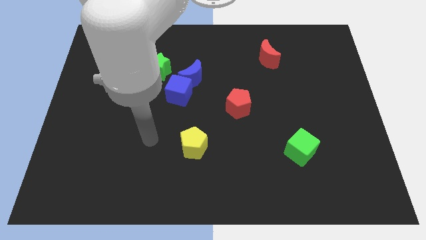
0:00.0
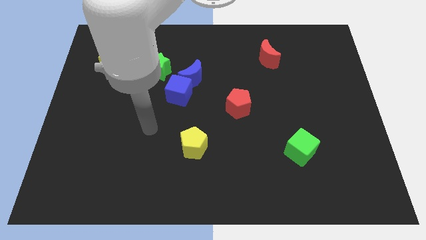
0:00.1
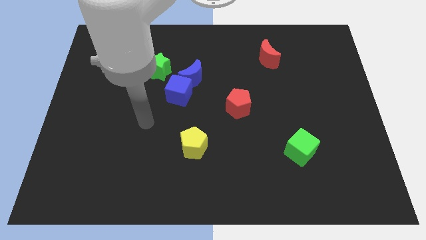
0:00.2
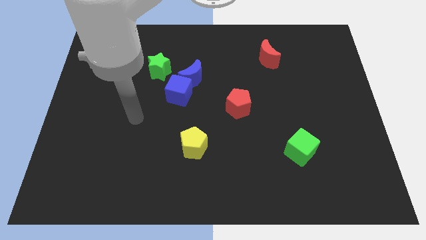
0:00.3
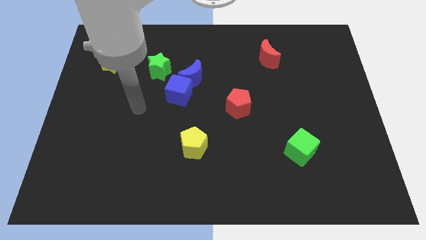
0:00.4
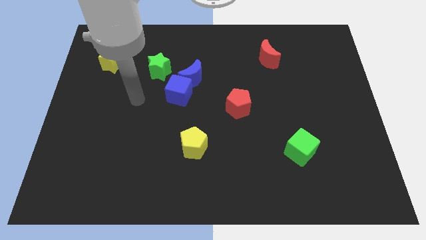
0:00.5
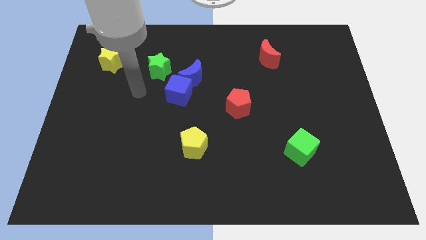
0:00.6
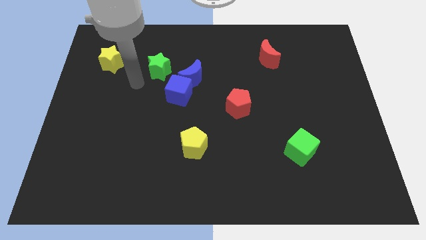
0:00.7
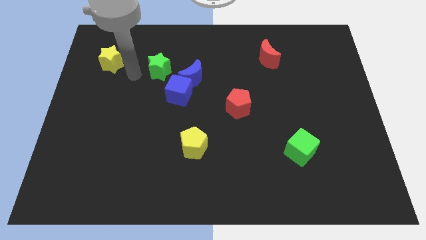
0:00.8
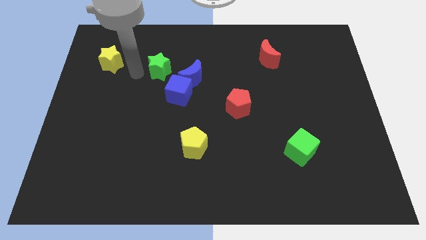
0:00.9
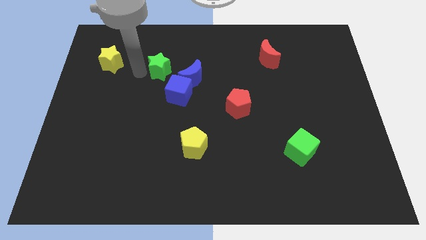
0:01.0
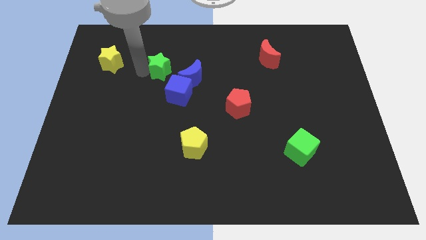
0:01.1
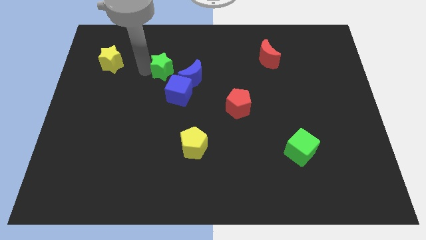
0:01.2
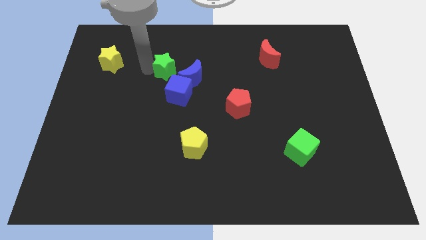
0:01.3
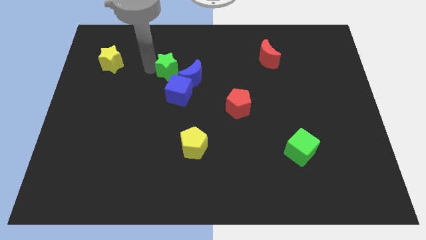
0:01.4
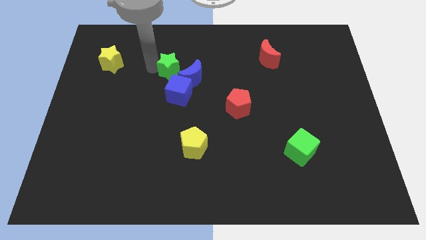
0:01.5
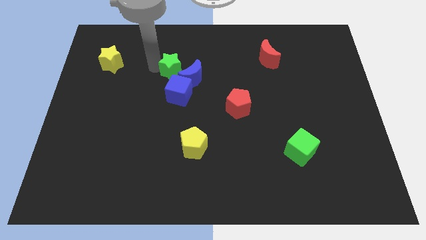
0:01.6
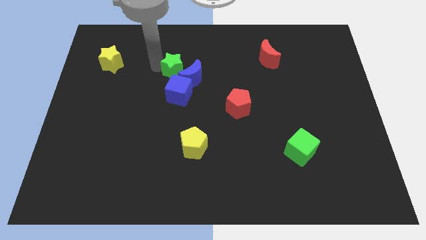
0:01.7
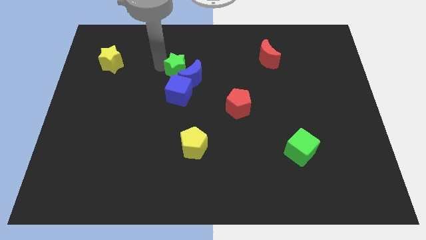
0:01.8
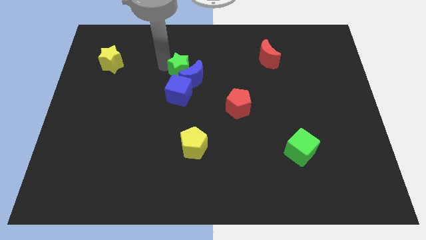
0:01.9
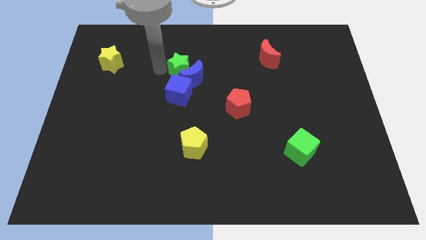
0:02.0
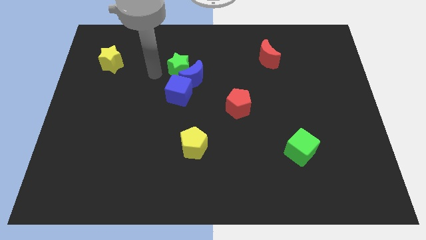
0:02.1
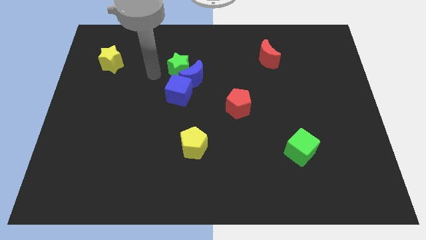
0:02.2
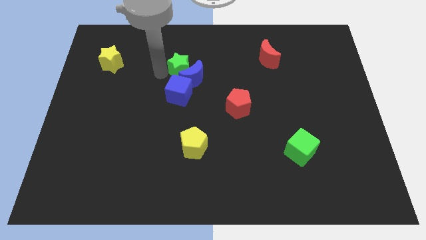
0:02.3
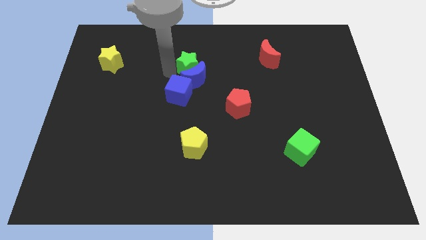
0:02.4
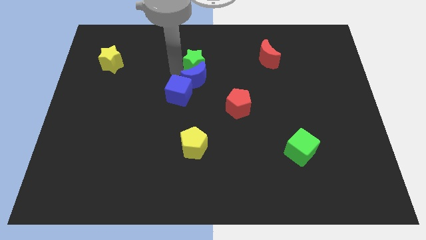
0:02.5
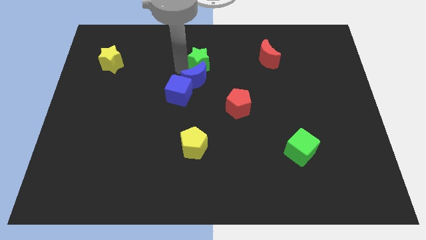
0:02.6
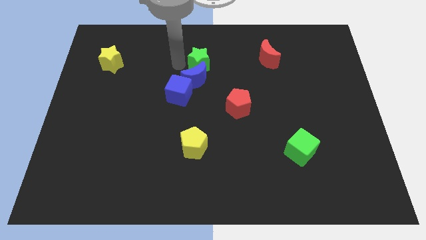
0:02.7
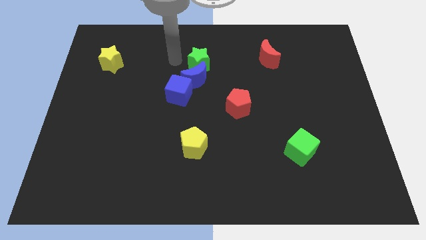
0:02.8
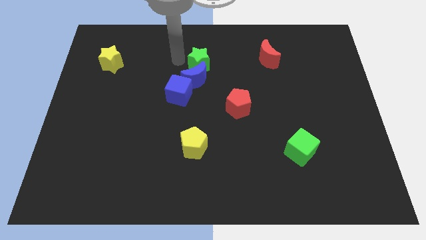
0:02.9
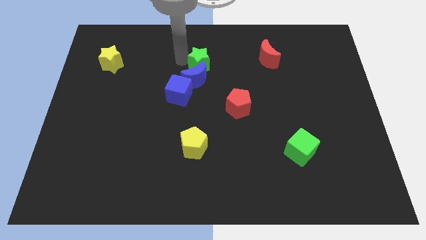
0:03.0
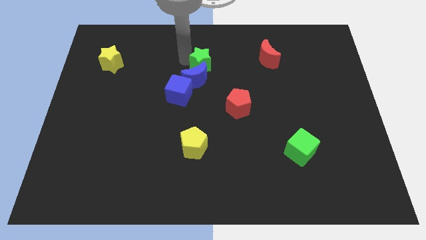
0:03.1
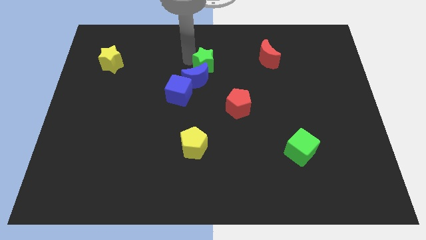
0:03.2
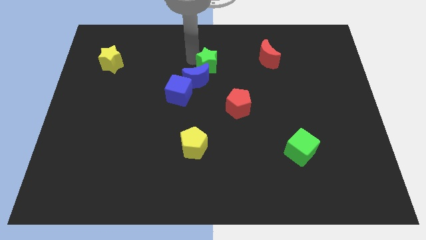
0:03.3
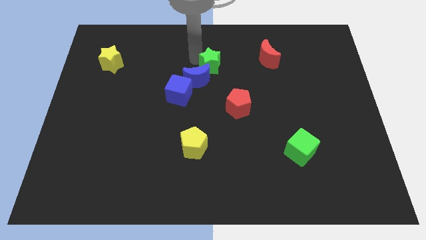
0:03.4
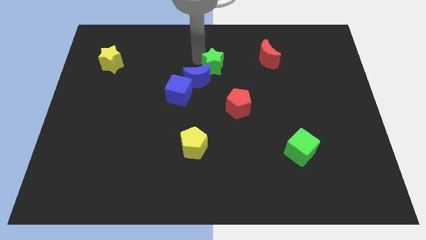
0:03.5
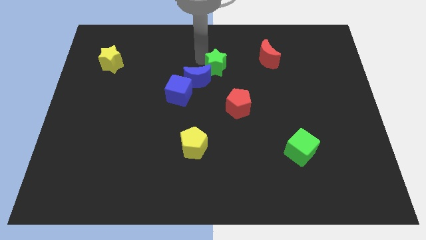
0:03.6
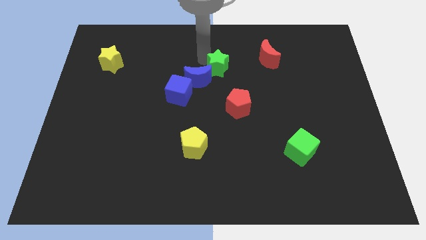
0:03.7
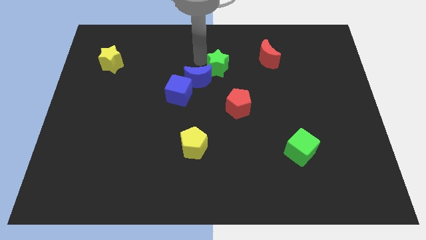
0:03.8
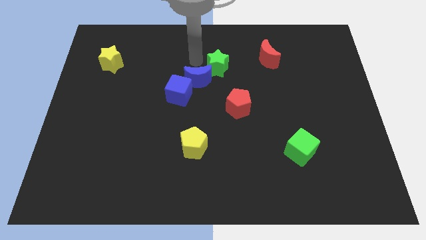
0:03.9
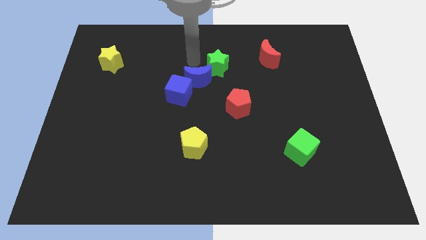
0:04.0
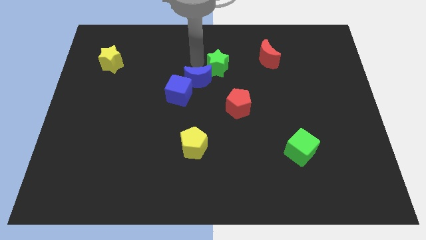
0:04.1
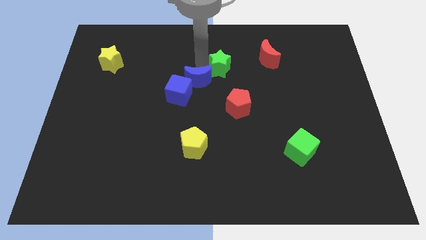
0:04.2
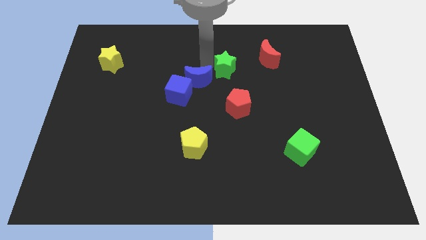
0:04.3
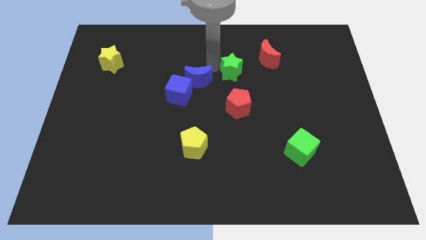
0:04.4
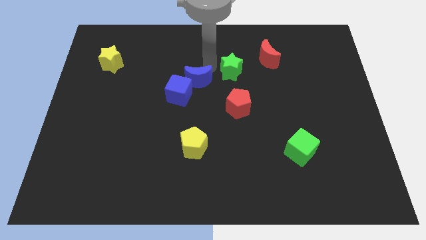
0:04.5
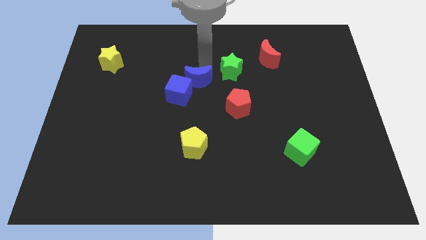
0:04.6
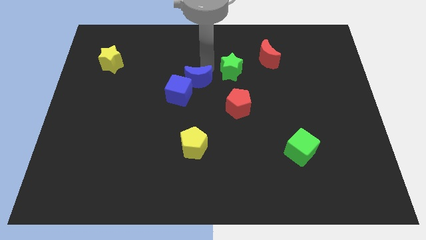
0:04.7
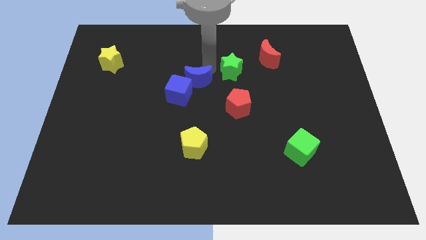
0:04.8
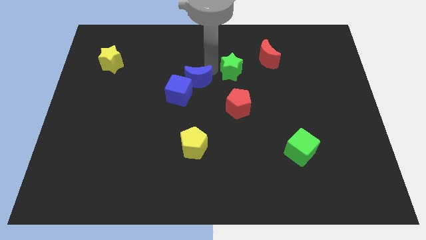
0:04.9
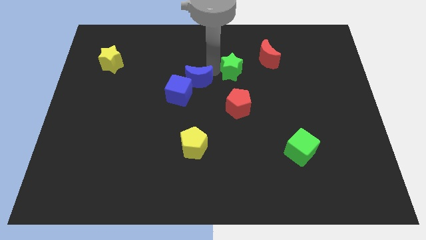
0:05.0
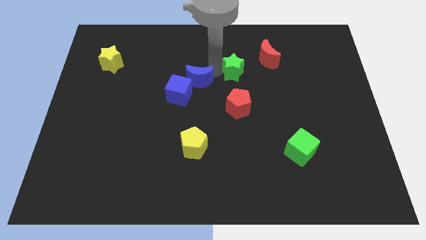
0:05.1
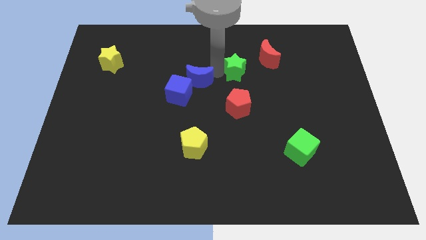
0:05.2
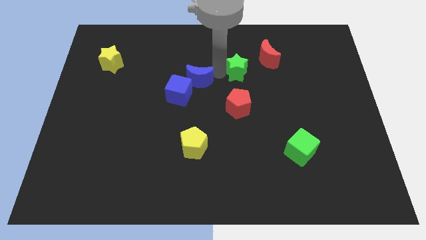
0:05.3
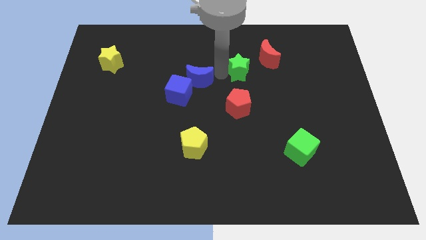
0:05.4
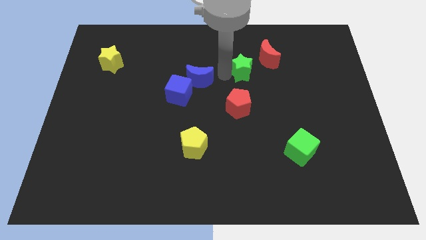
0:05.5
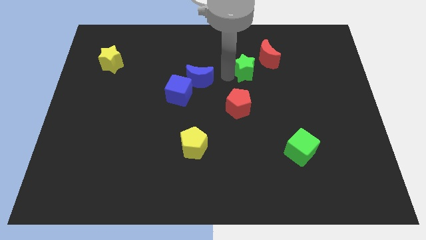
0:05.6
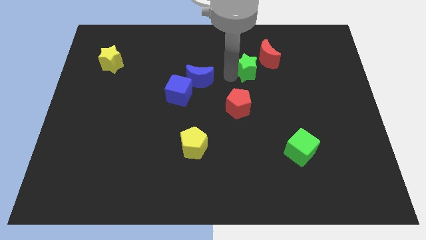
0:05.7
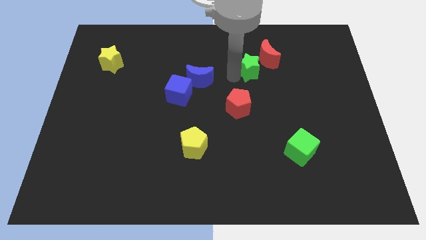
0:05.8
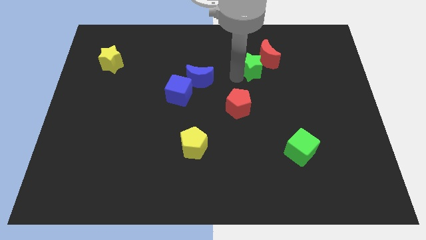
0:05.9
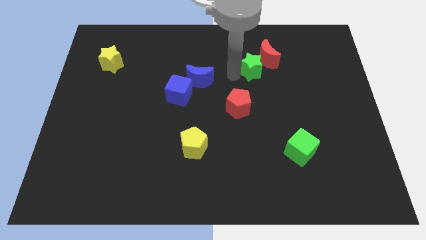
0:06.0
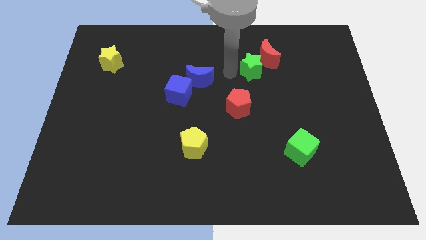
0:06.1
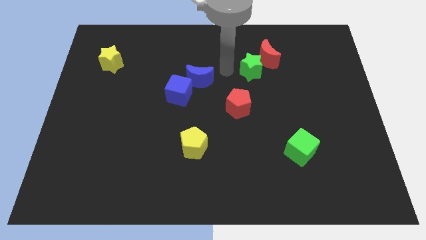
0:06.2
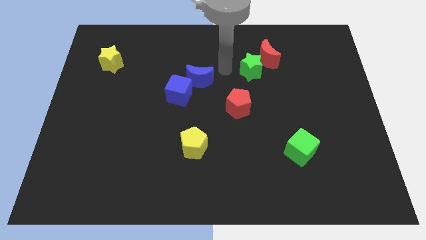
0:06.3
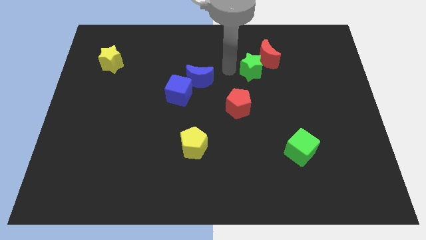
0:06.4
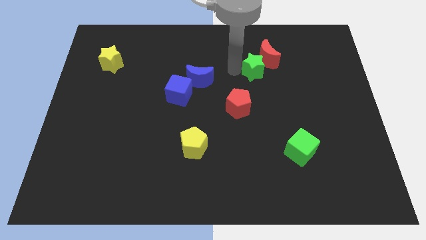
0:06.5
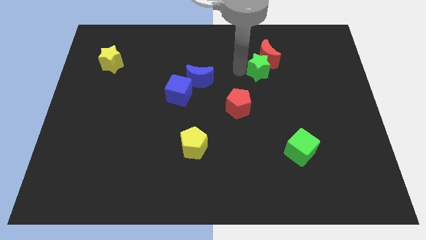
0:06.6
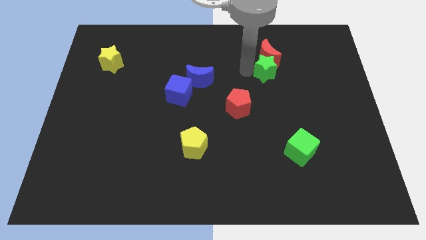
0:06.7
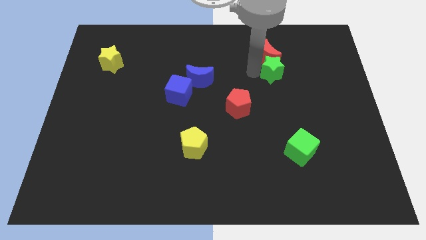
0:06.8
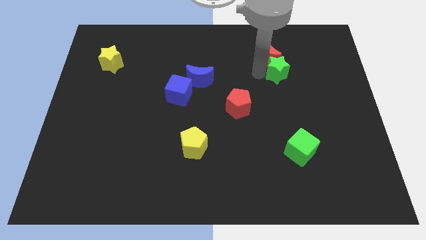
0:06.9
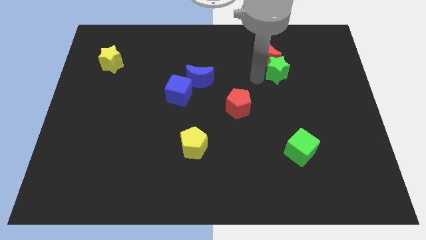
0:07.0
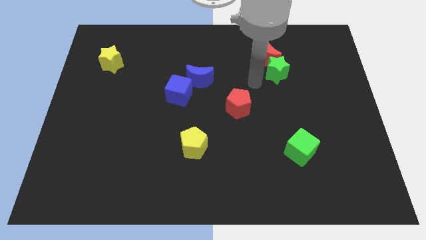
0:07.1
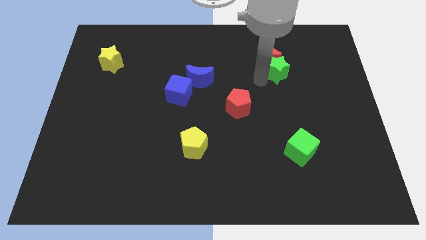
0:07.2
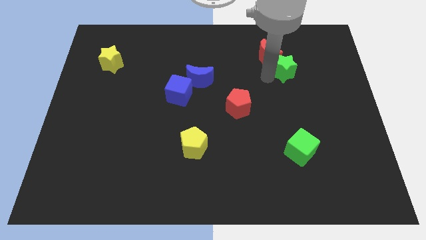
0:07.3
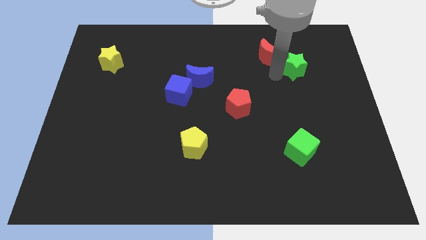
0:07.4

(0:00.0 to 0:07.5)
move the green star to the right of the red moon
